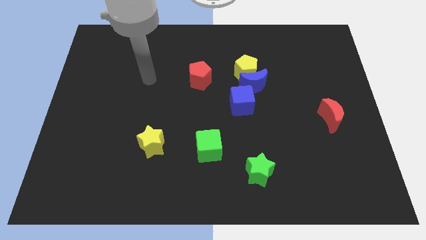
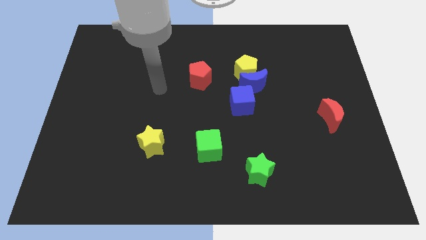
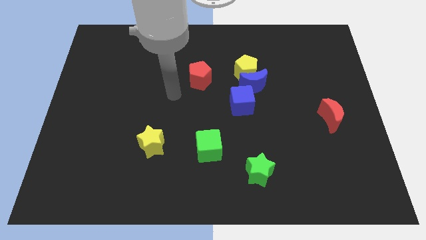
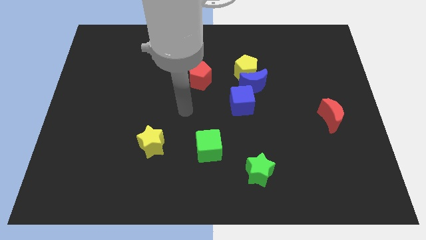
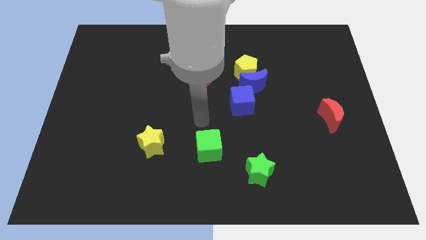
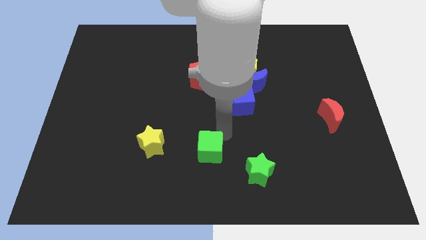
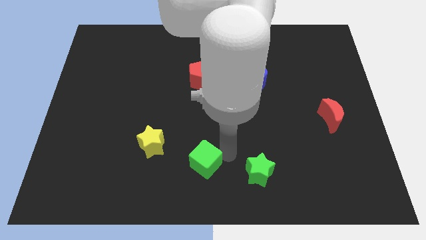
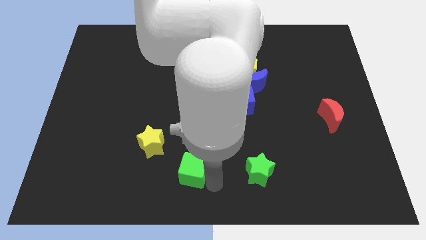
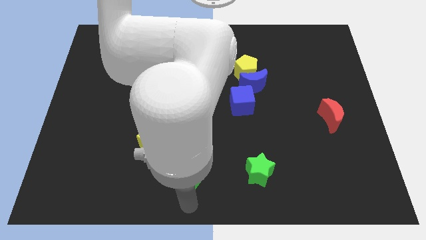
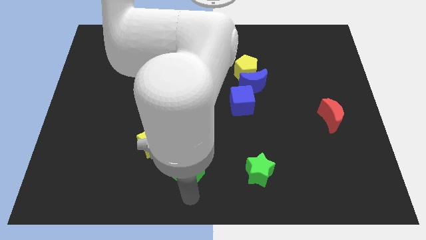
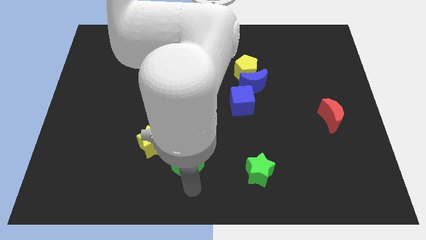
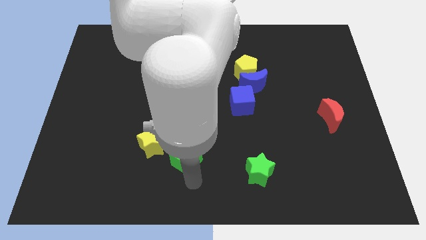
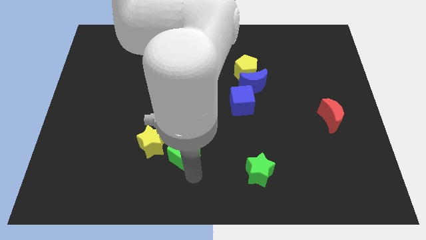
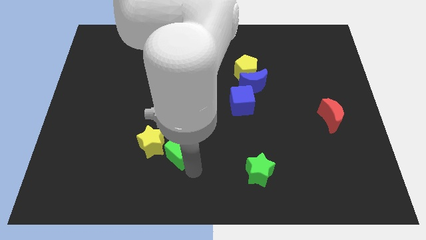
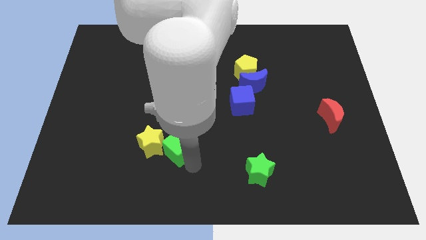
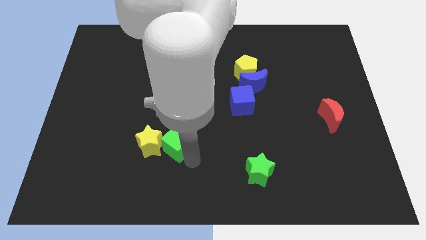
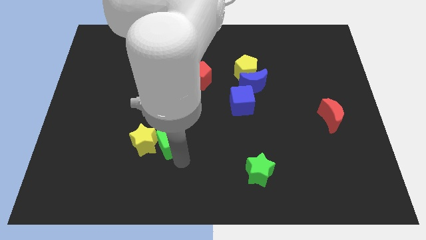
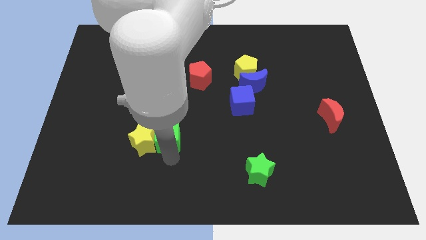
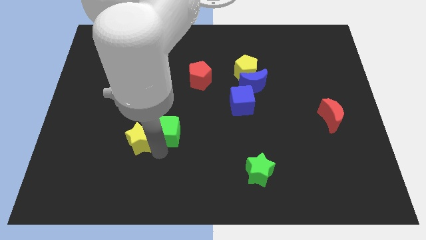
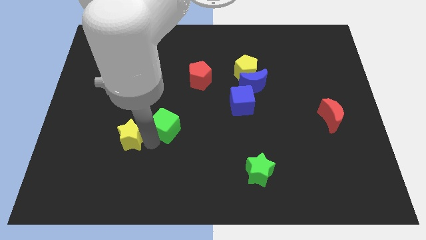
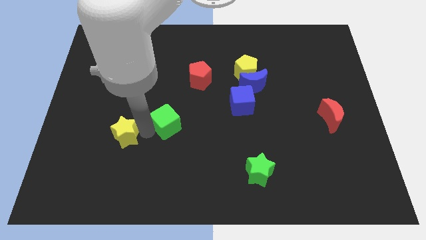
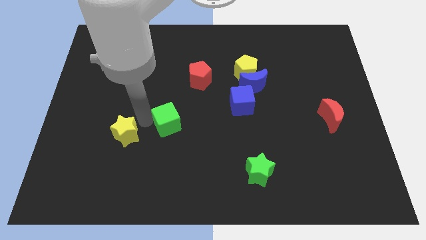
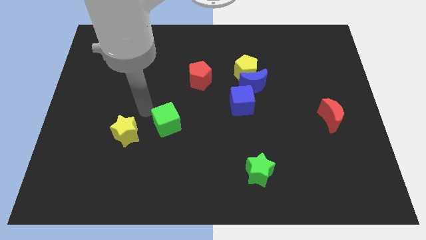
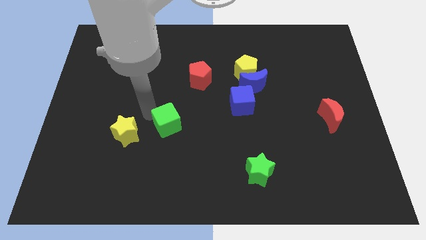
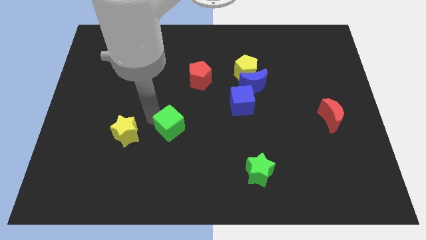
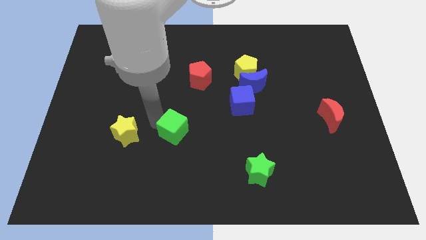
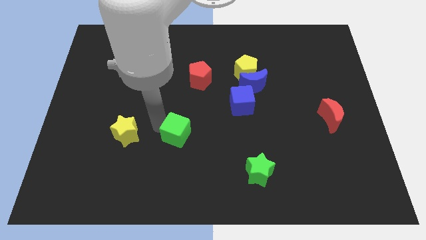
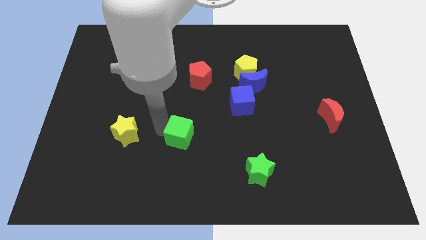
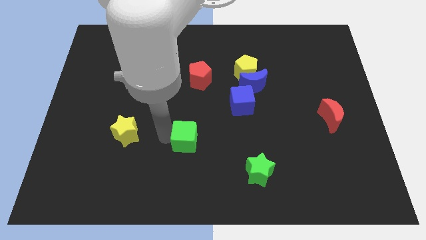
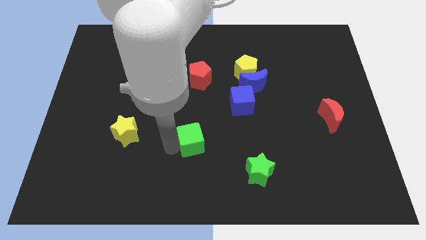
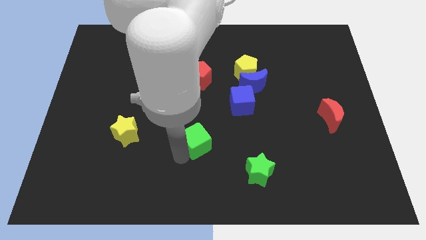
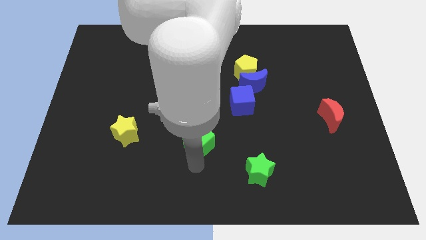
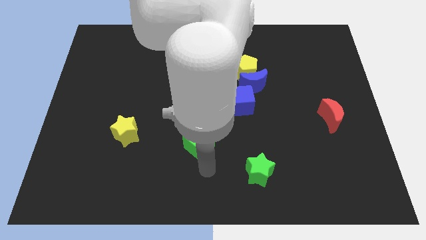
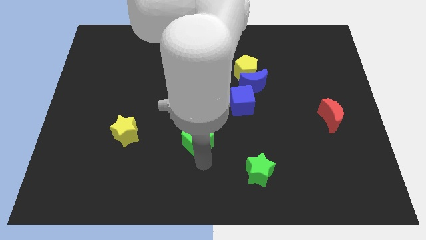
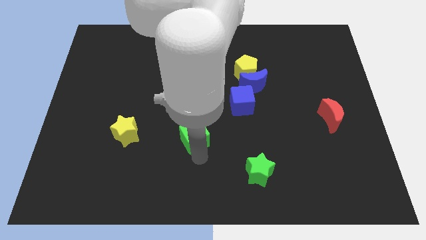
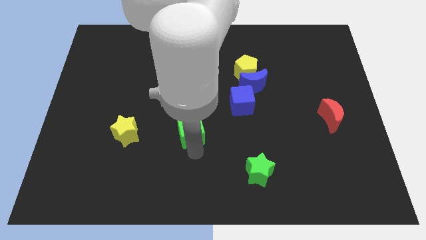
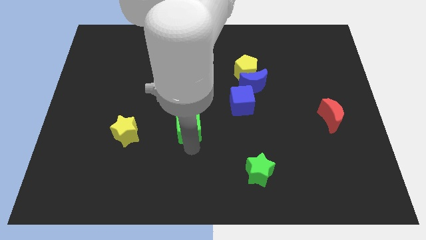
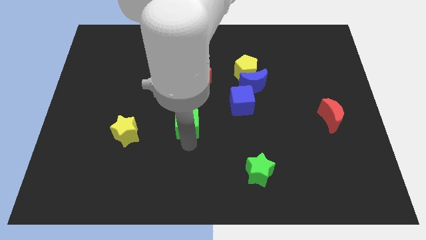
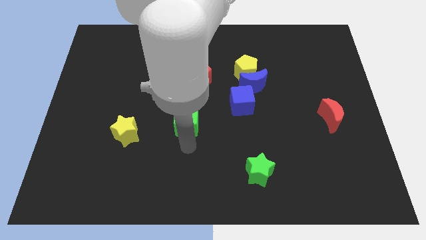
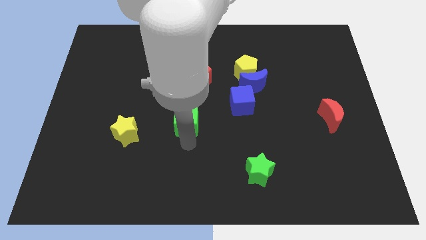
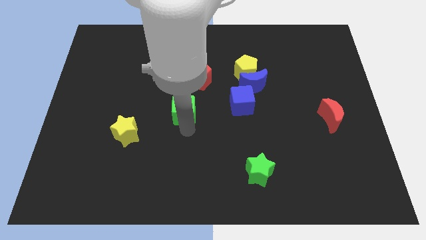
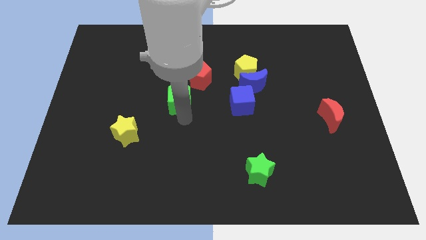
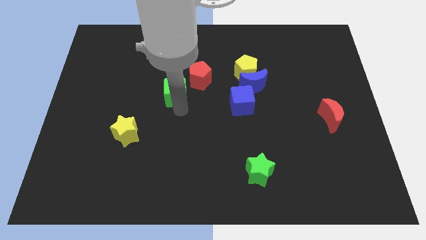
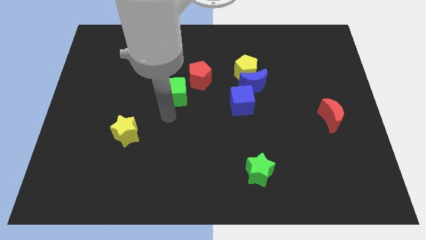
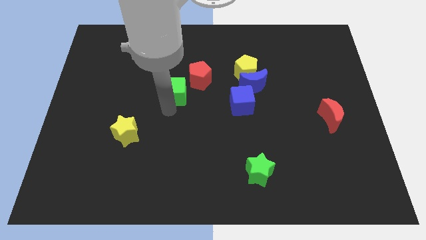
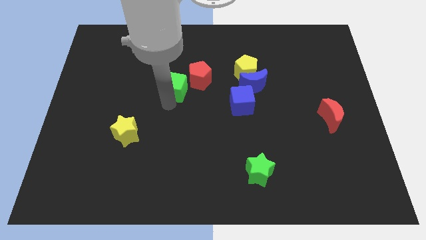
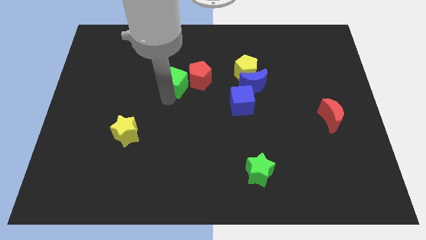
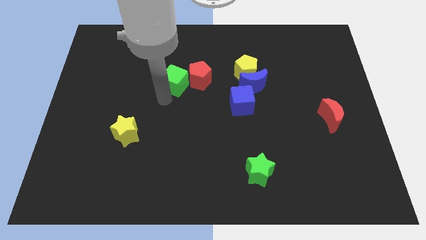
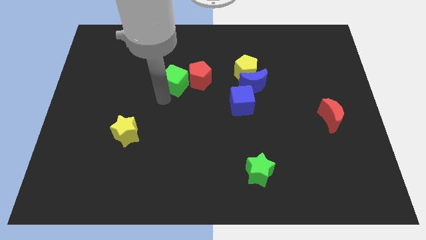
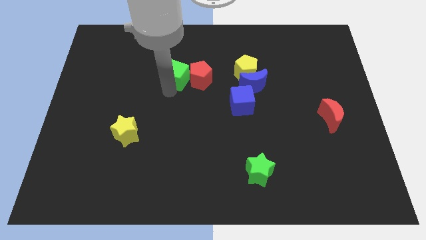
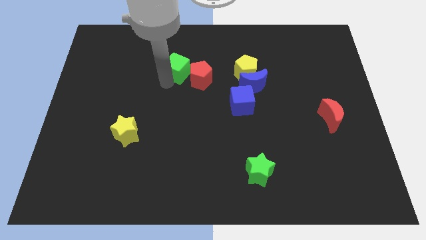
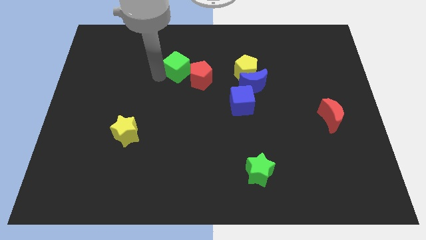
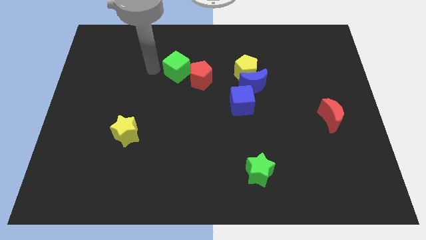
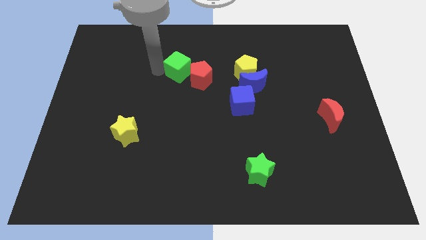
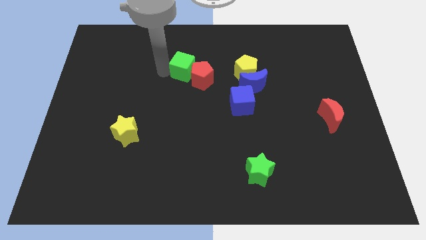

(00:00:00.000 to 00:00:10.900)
push the green cube to the left side of the yellow pentagon

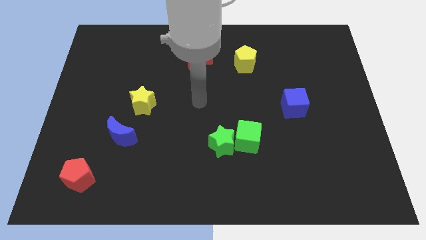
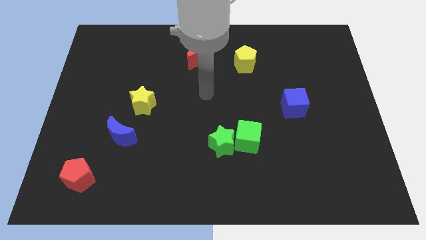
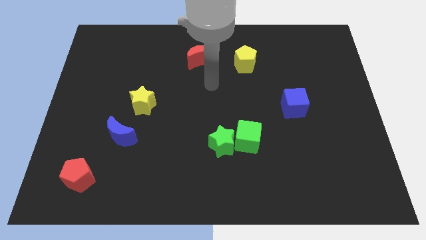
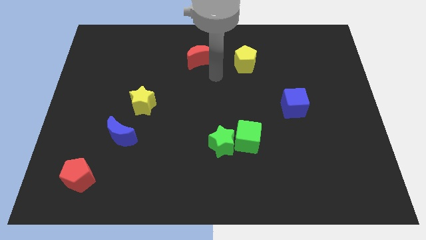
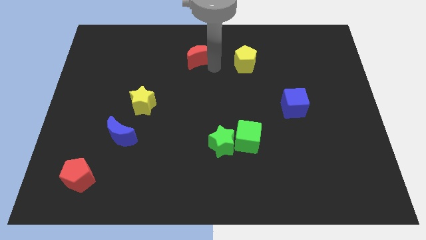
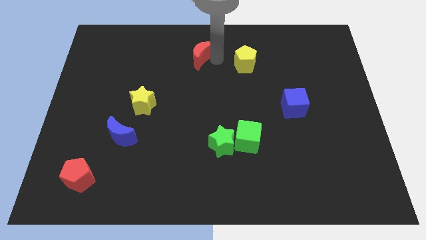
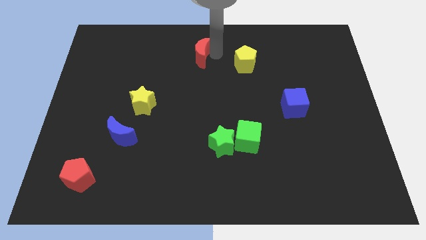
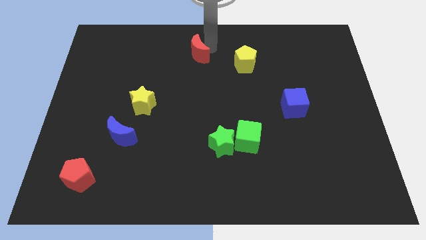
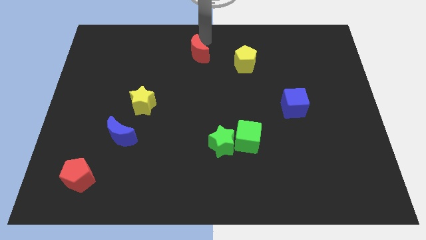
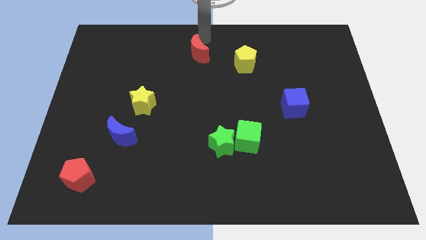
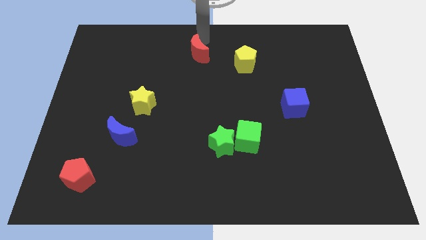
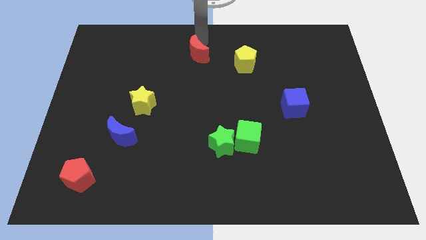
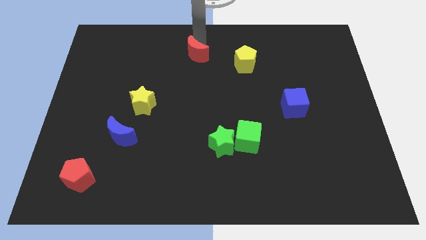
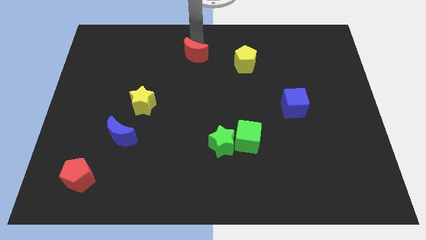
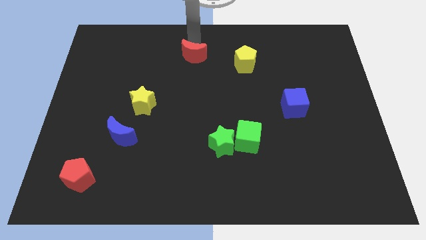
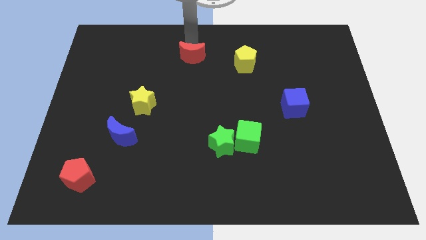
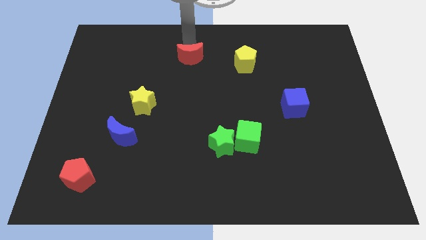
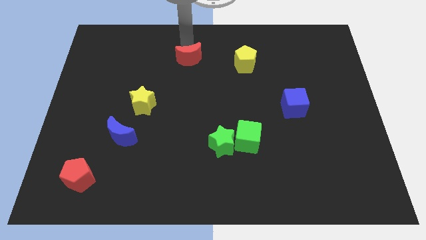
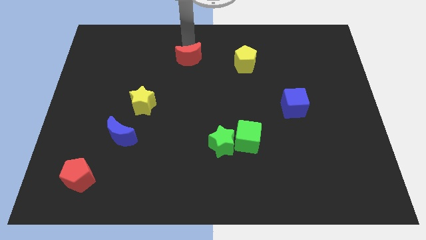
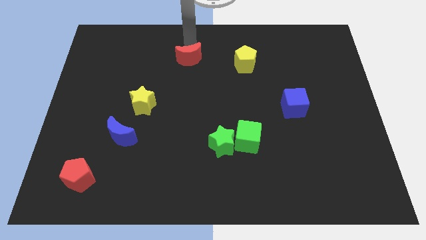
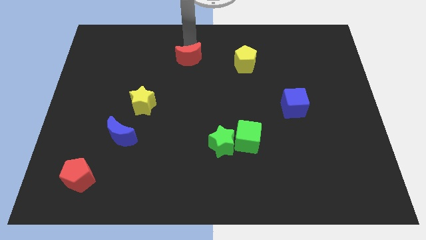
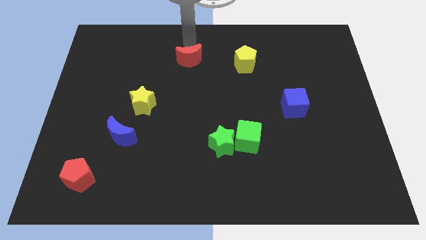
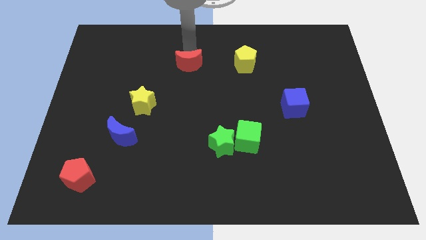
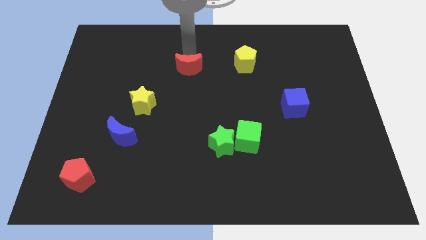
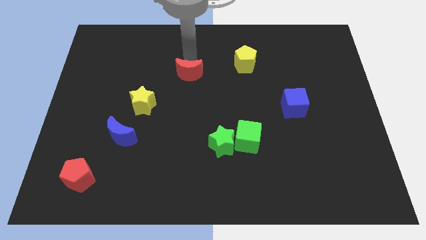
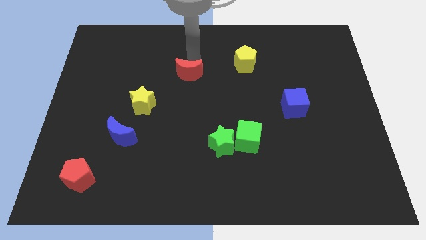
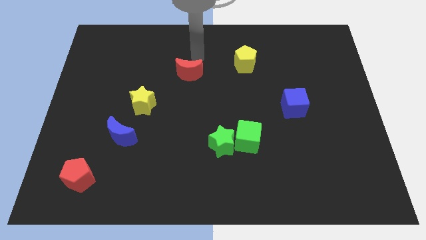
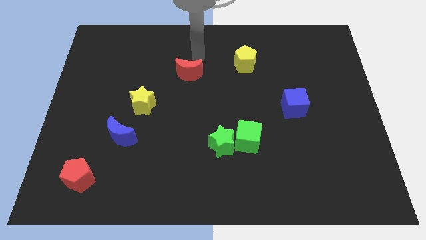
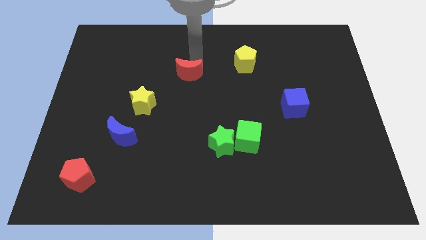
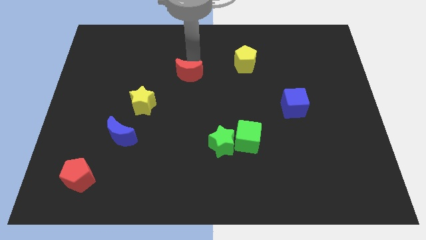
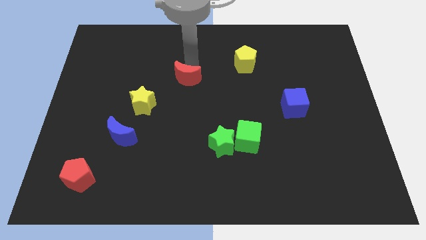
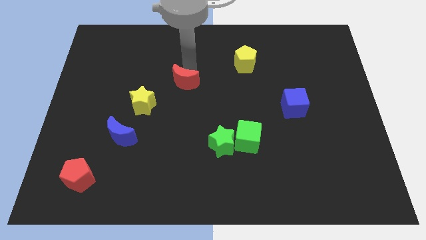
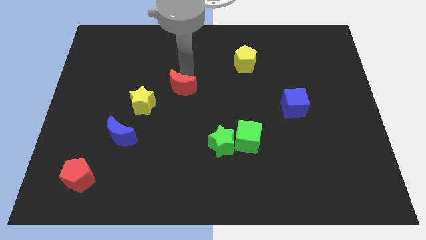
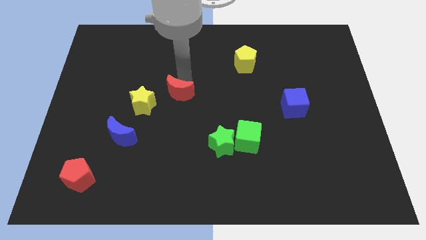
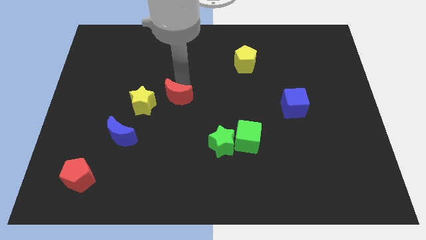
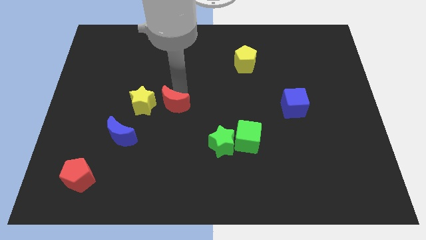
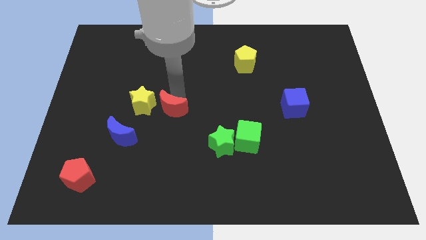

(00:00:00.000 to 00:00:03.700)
put the red moon to the bottom right of the yellow star
